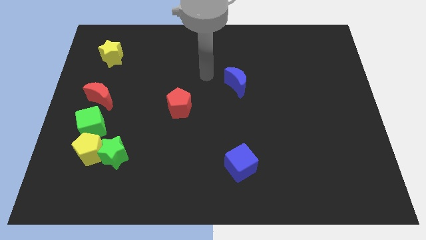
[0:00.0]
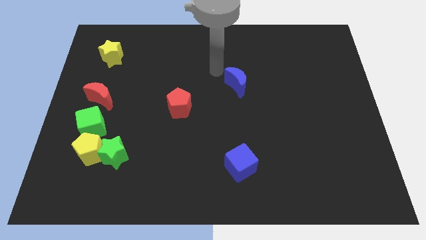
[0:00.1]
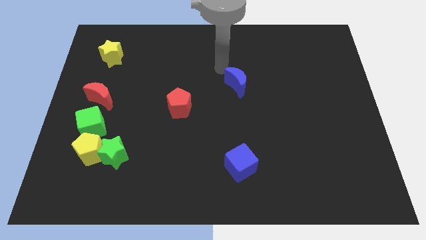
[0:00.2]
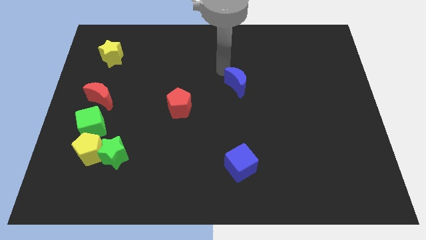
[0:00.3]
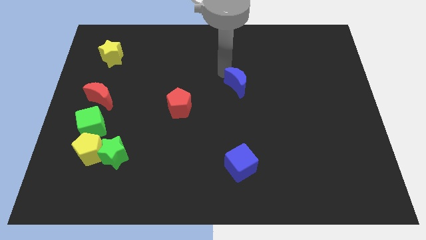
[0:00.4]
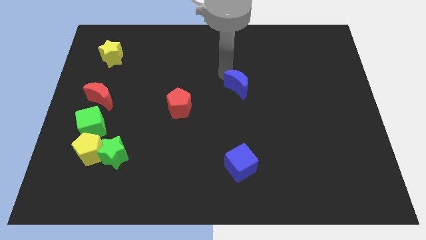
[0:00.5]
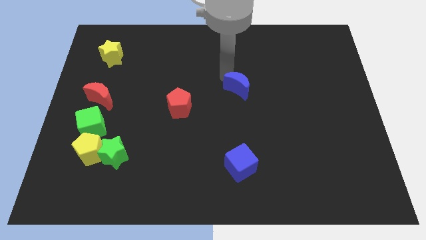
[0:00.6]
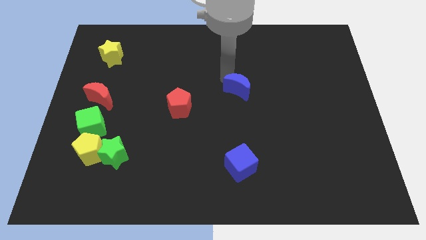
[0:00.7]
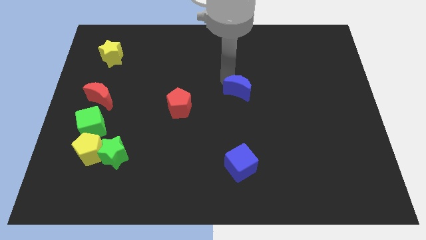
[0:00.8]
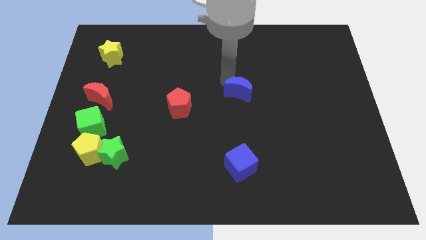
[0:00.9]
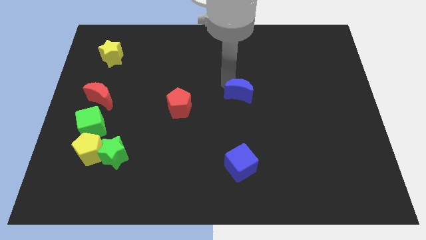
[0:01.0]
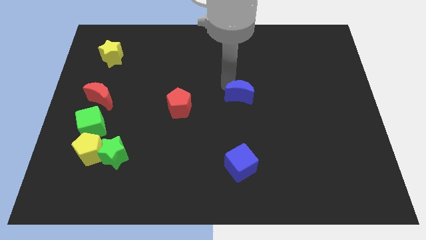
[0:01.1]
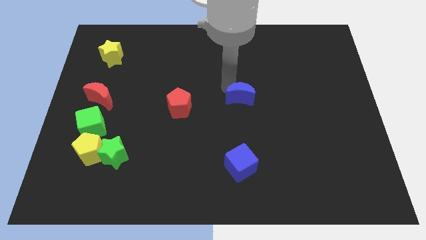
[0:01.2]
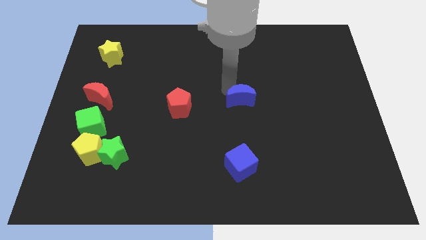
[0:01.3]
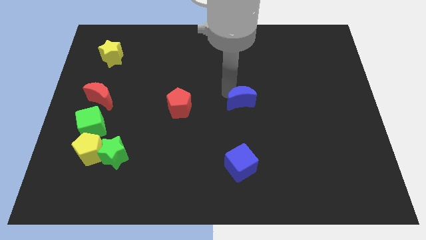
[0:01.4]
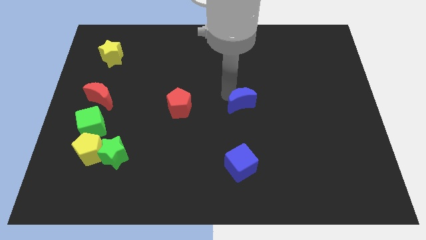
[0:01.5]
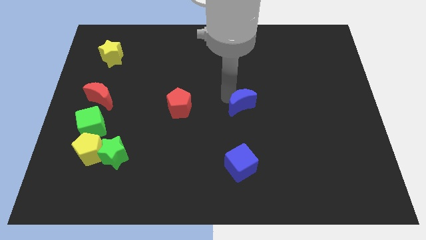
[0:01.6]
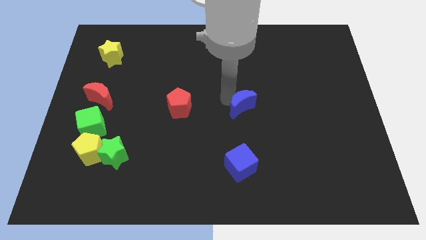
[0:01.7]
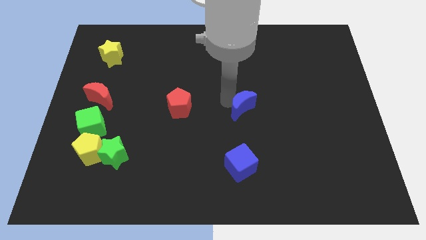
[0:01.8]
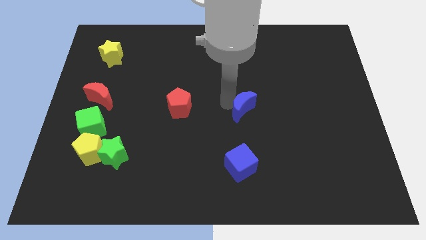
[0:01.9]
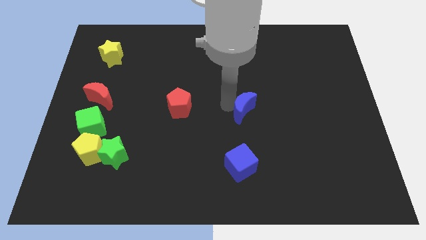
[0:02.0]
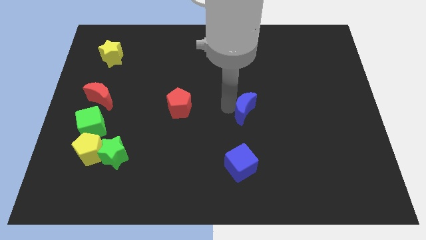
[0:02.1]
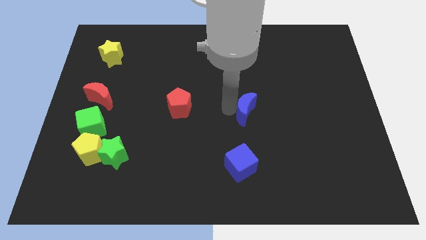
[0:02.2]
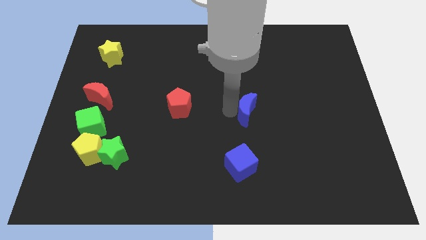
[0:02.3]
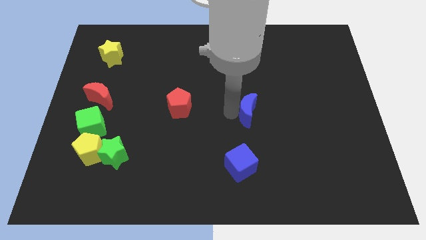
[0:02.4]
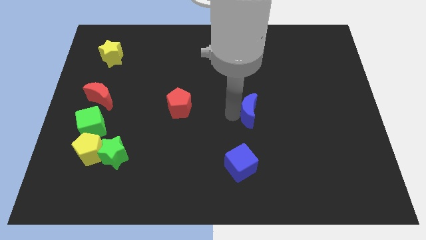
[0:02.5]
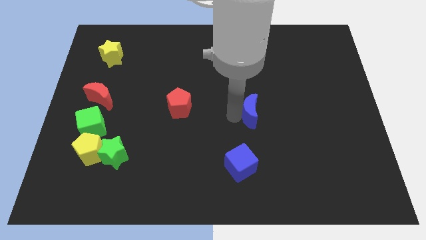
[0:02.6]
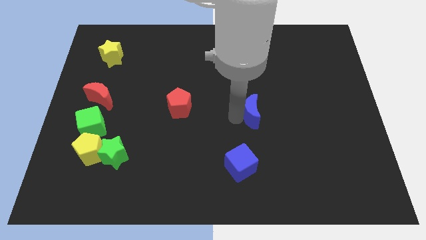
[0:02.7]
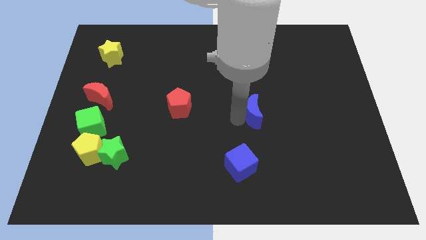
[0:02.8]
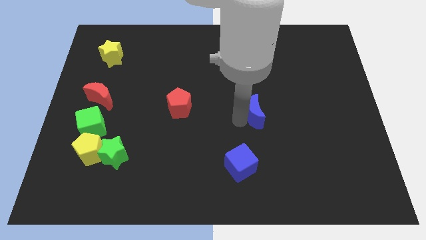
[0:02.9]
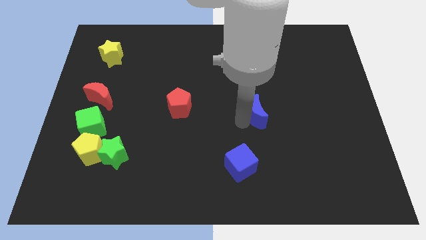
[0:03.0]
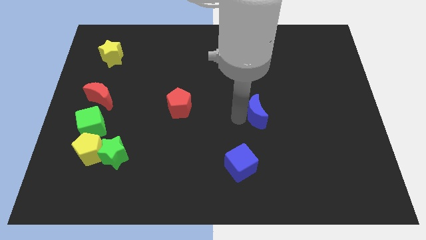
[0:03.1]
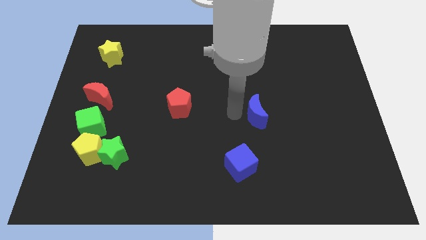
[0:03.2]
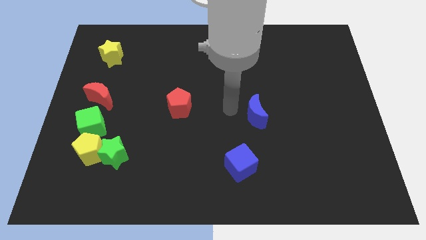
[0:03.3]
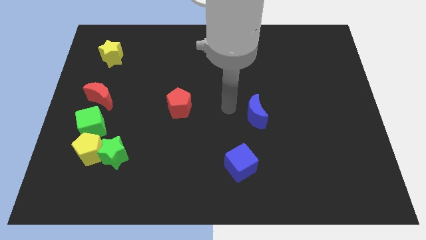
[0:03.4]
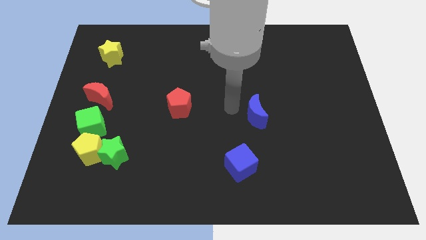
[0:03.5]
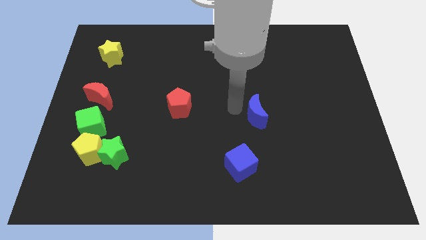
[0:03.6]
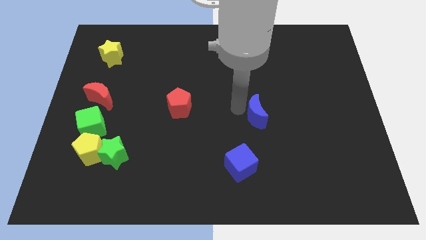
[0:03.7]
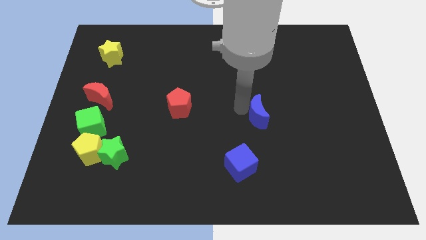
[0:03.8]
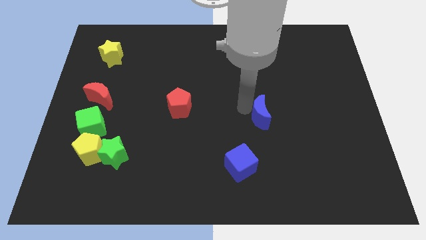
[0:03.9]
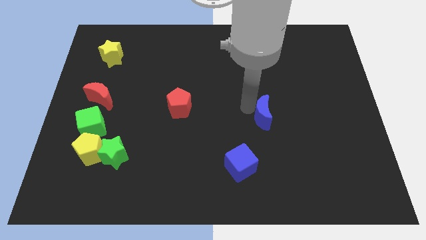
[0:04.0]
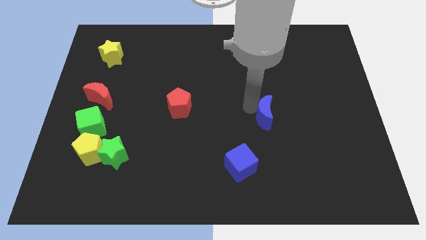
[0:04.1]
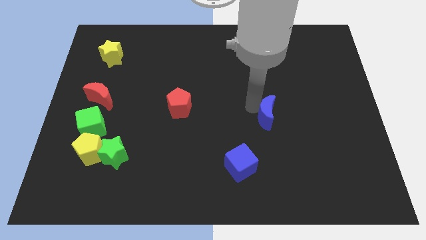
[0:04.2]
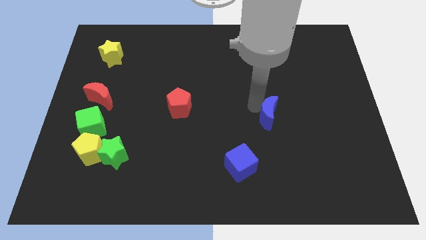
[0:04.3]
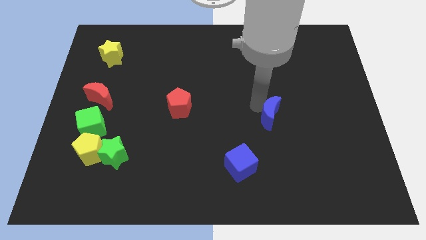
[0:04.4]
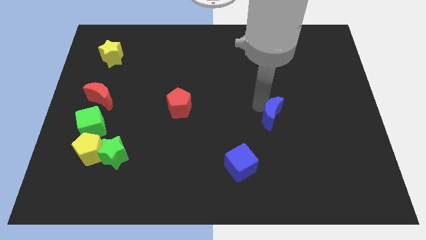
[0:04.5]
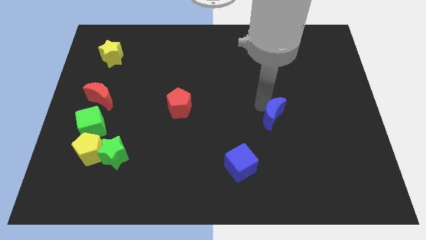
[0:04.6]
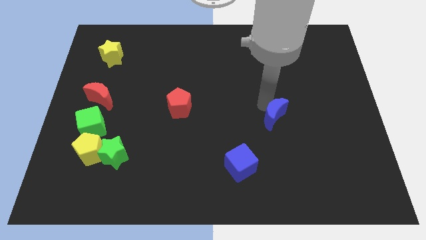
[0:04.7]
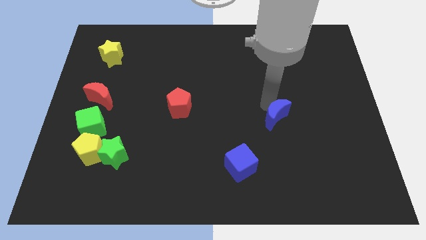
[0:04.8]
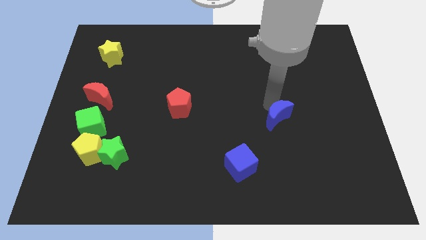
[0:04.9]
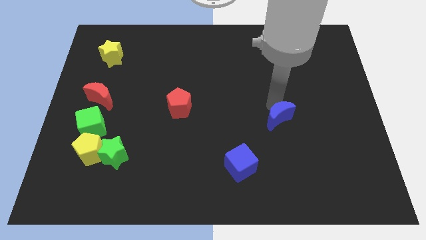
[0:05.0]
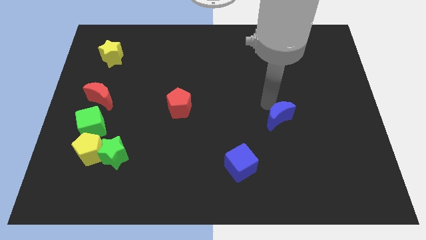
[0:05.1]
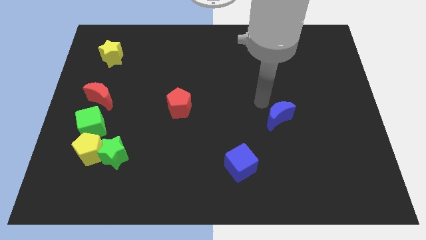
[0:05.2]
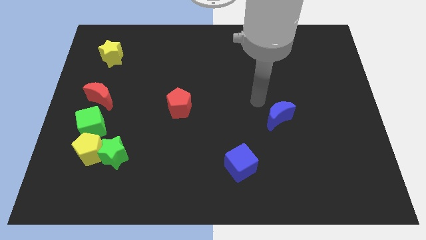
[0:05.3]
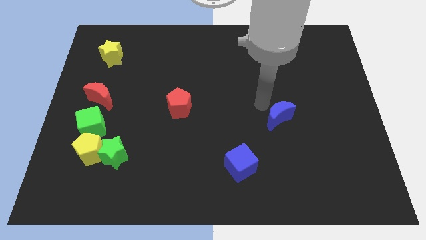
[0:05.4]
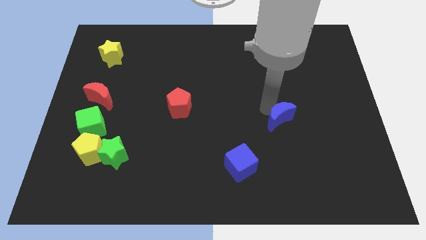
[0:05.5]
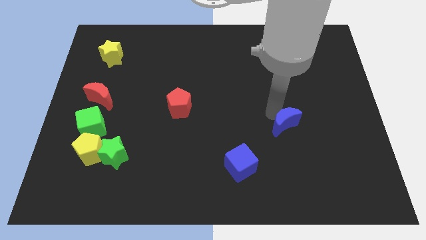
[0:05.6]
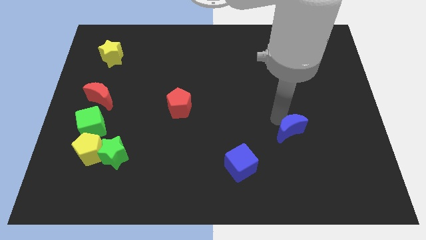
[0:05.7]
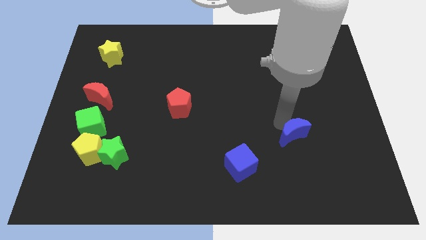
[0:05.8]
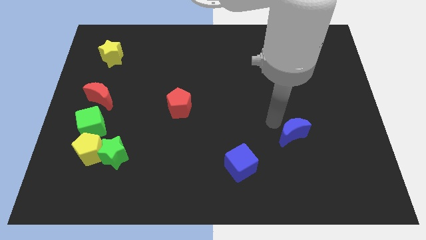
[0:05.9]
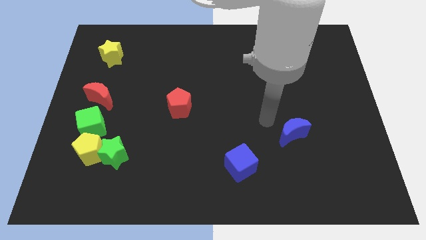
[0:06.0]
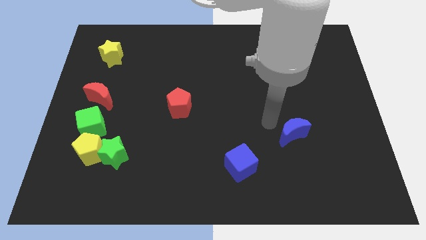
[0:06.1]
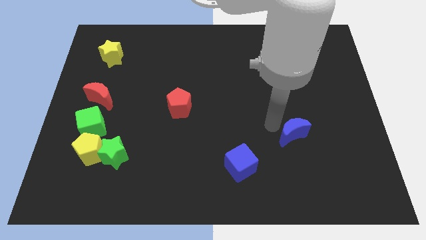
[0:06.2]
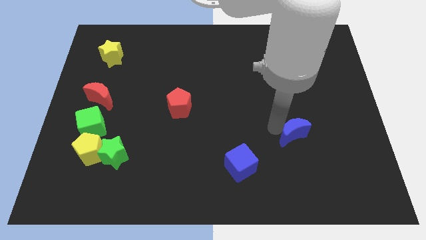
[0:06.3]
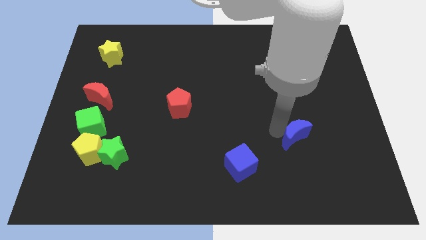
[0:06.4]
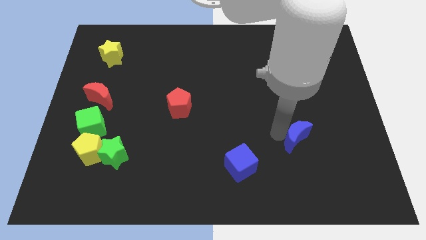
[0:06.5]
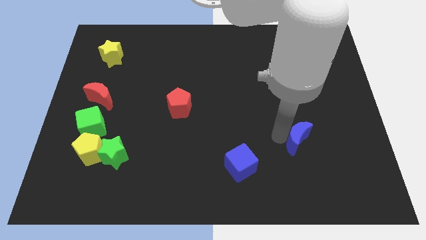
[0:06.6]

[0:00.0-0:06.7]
slide the blue moon down and right diagonally

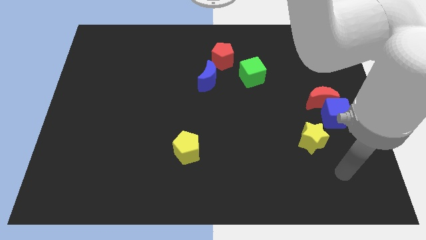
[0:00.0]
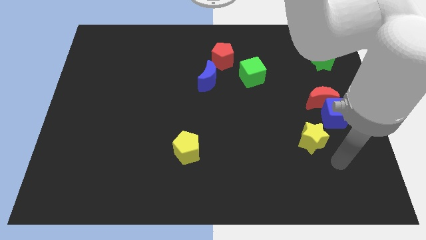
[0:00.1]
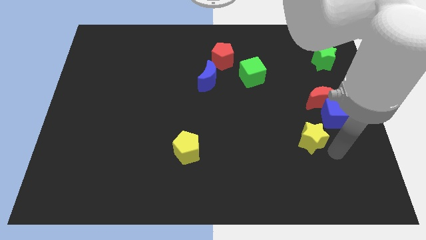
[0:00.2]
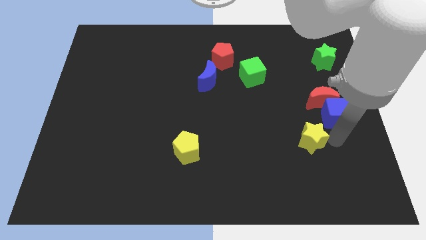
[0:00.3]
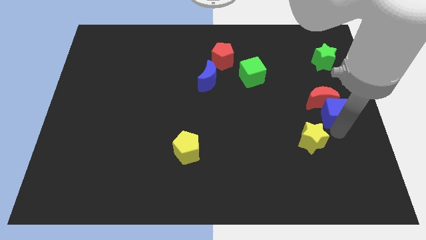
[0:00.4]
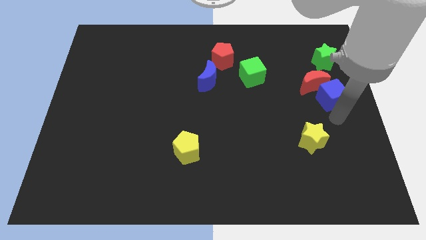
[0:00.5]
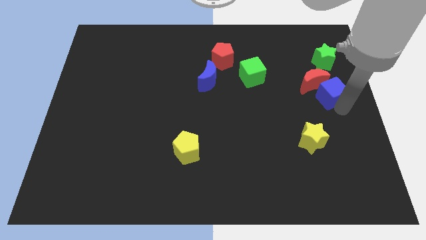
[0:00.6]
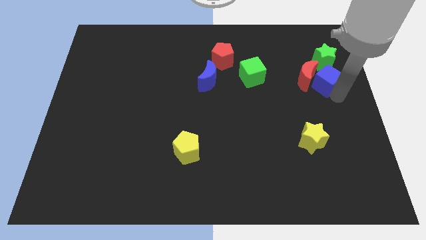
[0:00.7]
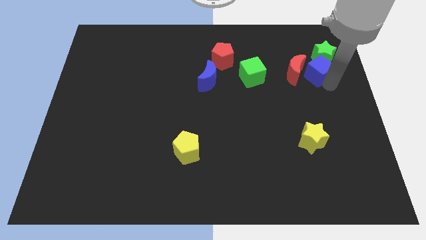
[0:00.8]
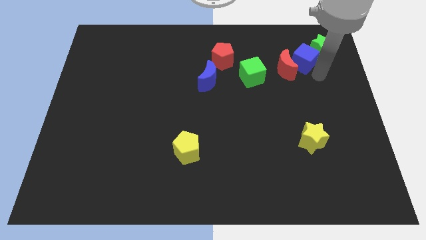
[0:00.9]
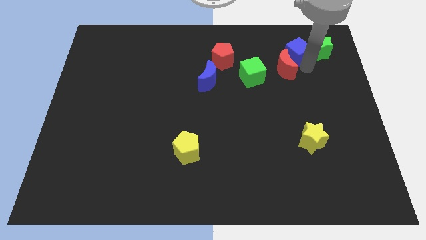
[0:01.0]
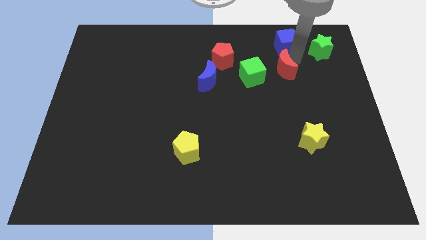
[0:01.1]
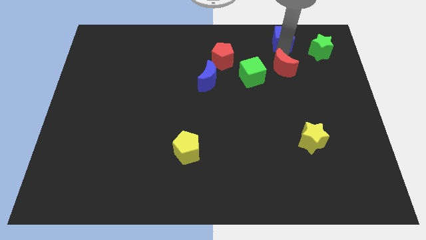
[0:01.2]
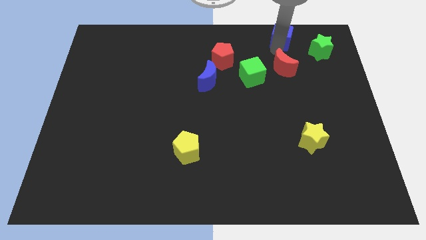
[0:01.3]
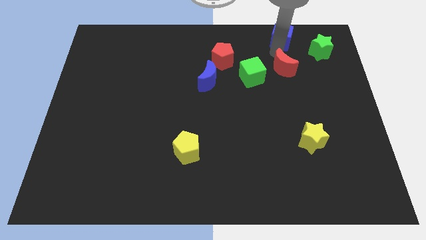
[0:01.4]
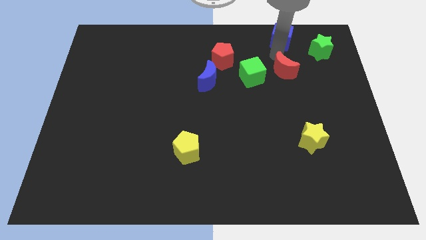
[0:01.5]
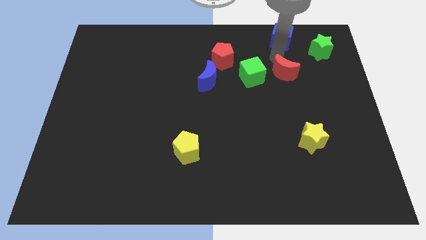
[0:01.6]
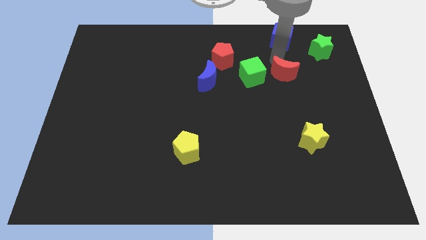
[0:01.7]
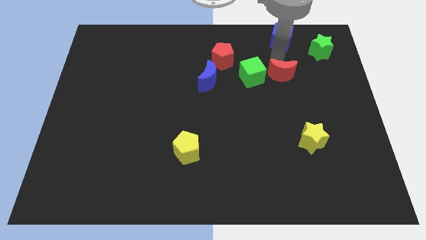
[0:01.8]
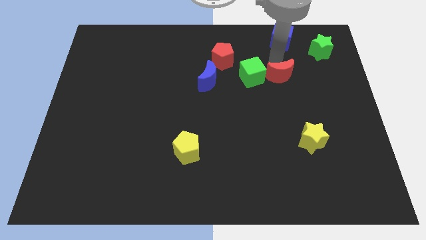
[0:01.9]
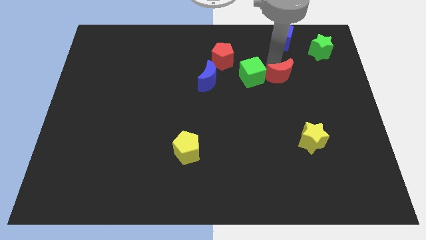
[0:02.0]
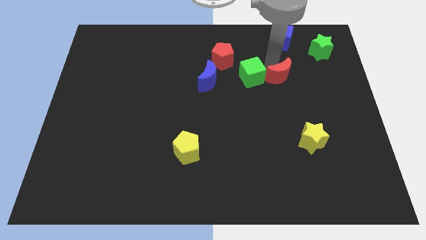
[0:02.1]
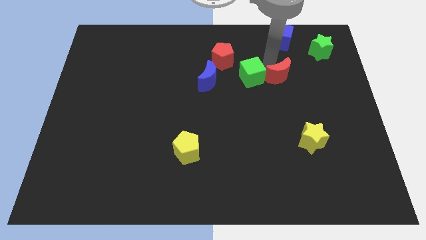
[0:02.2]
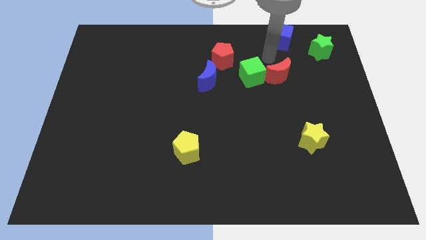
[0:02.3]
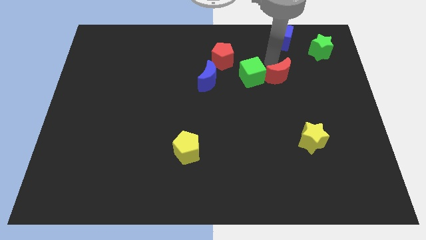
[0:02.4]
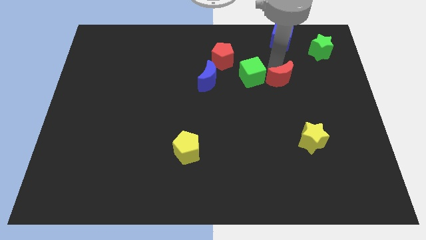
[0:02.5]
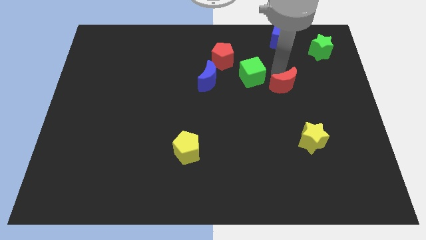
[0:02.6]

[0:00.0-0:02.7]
slightly move the red moon left
